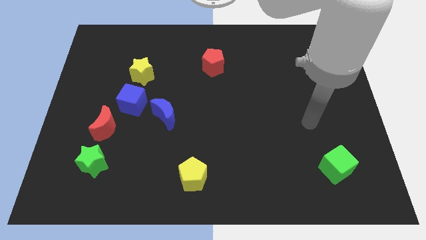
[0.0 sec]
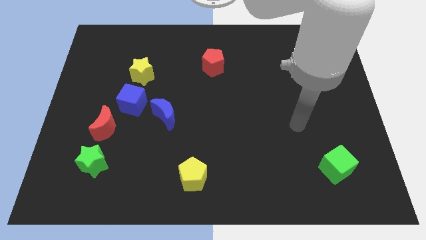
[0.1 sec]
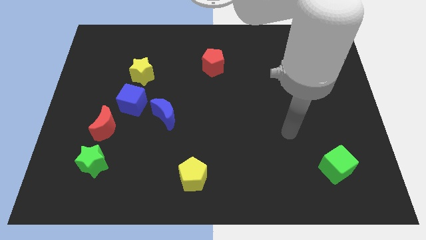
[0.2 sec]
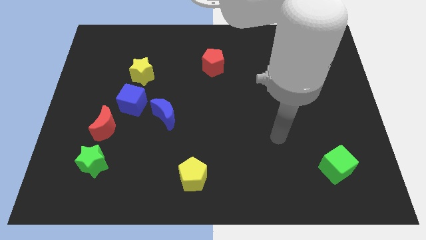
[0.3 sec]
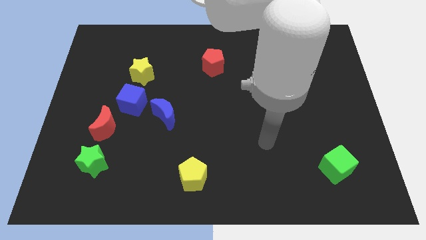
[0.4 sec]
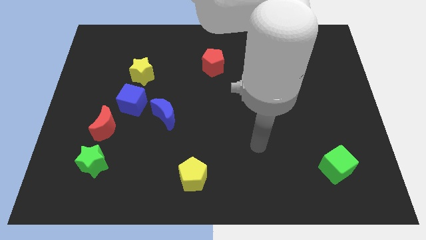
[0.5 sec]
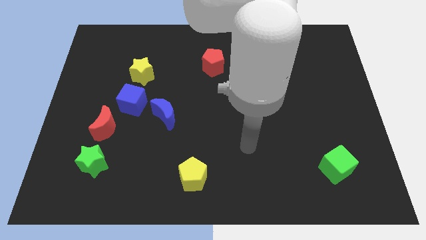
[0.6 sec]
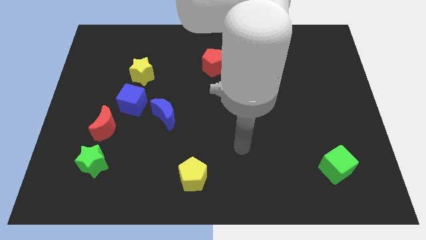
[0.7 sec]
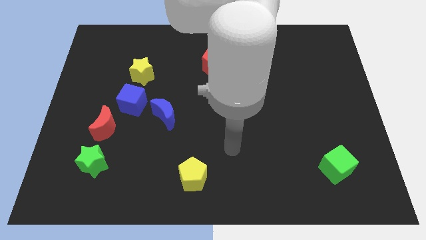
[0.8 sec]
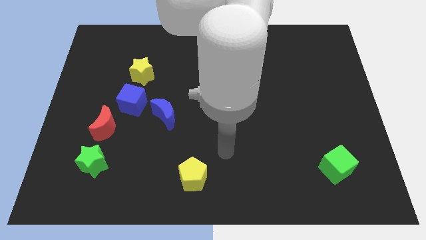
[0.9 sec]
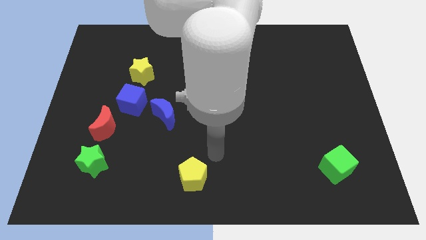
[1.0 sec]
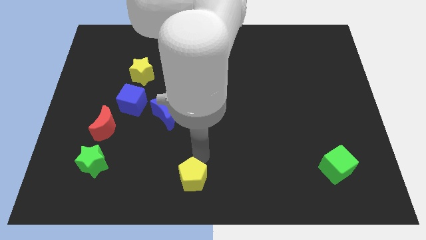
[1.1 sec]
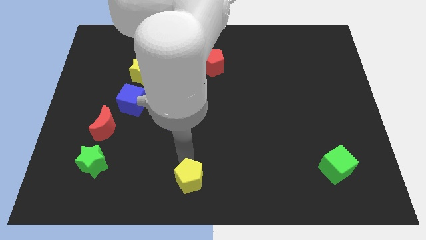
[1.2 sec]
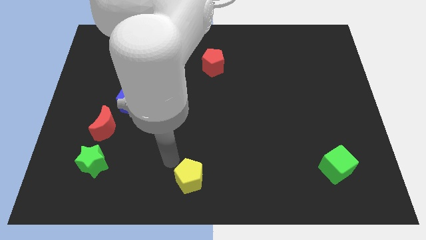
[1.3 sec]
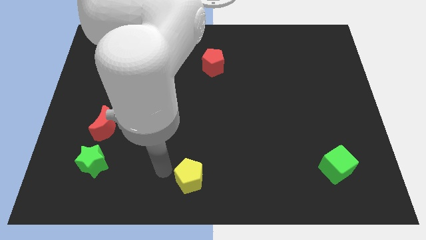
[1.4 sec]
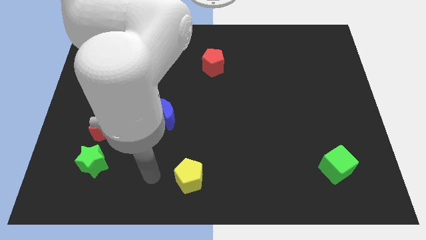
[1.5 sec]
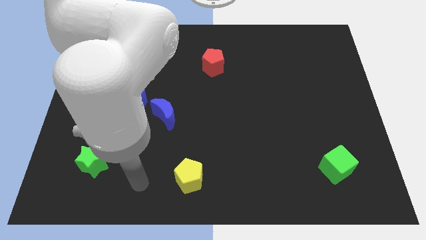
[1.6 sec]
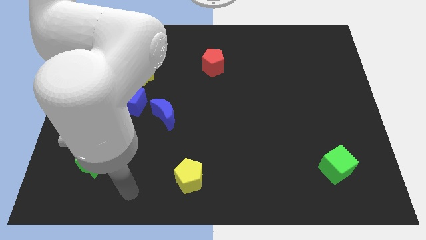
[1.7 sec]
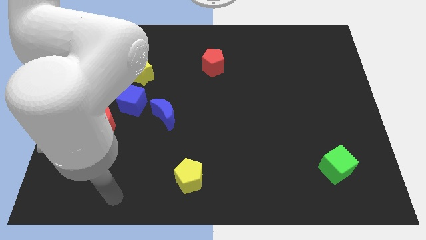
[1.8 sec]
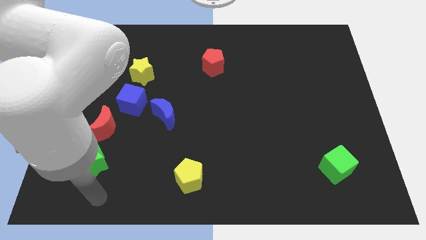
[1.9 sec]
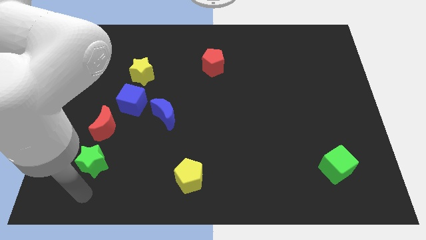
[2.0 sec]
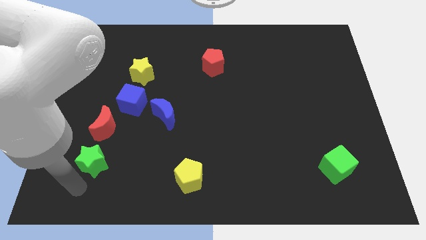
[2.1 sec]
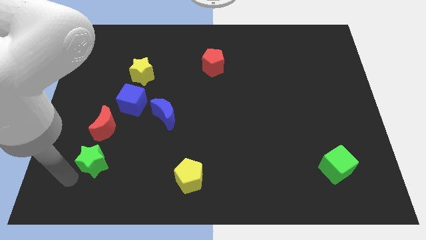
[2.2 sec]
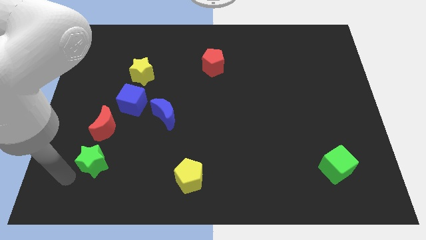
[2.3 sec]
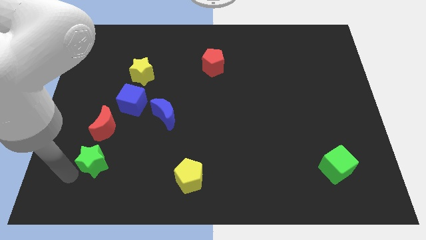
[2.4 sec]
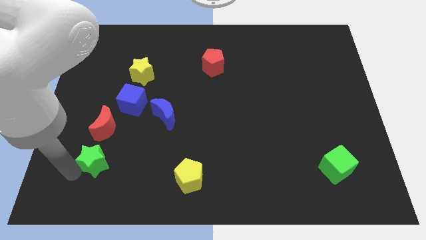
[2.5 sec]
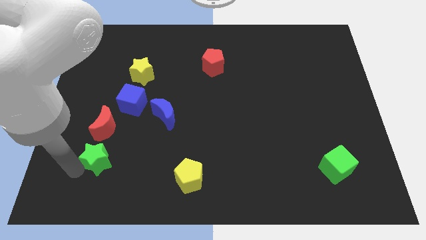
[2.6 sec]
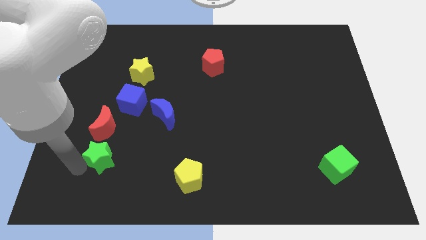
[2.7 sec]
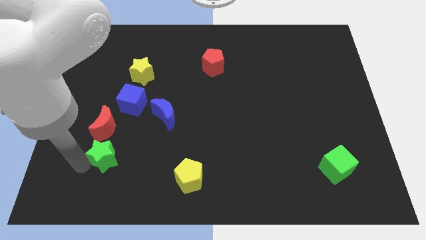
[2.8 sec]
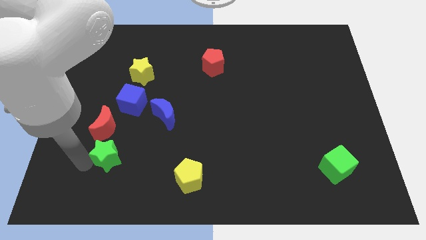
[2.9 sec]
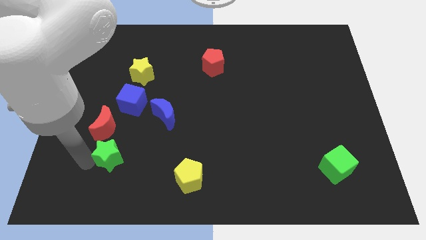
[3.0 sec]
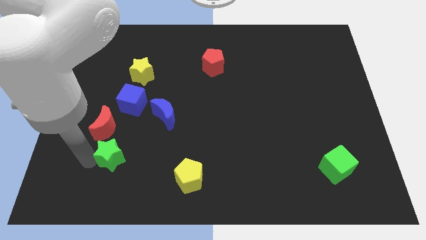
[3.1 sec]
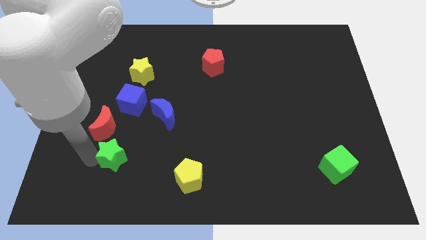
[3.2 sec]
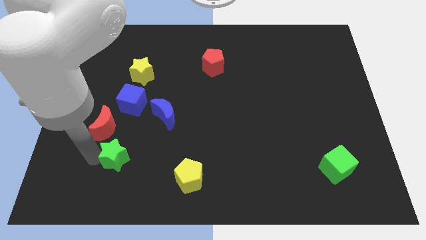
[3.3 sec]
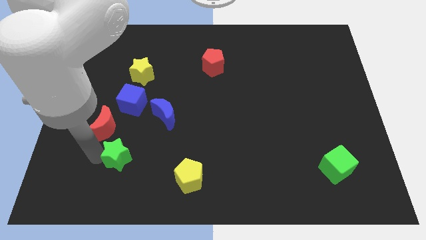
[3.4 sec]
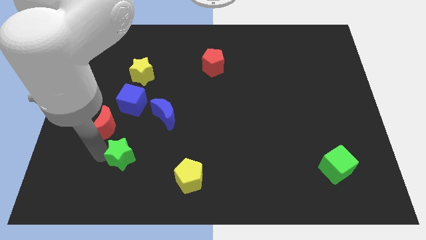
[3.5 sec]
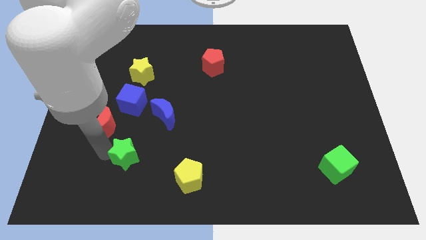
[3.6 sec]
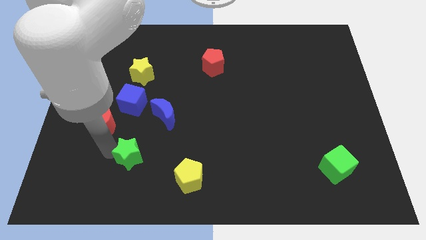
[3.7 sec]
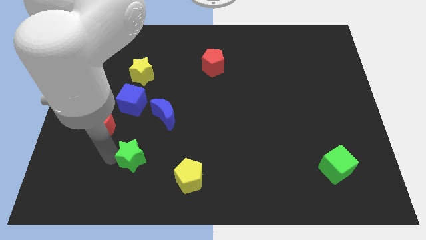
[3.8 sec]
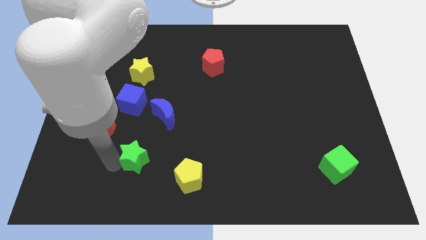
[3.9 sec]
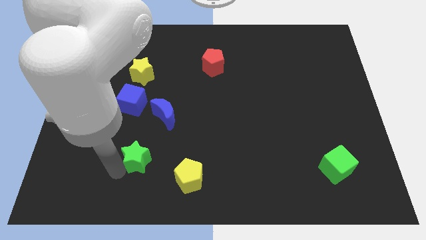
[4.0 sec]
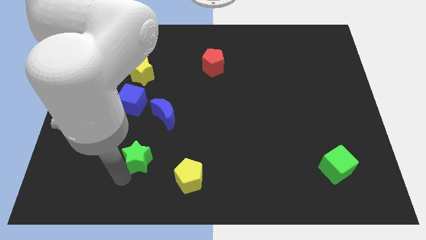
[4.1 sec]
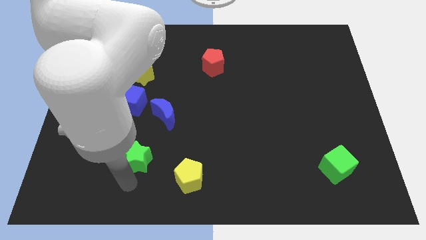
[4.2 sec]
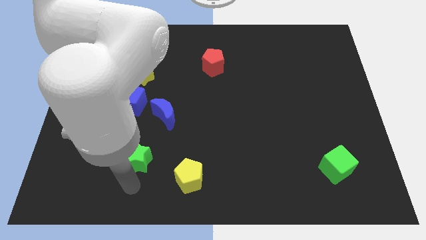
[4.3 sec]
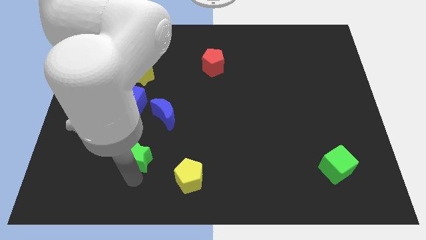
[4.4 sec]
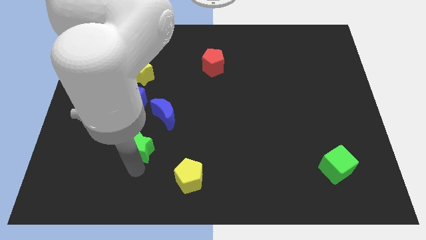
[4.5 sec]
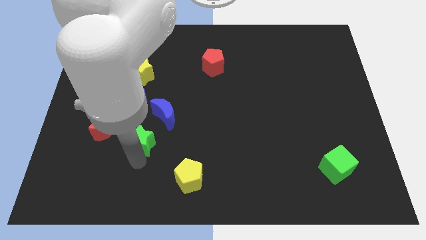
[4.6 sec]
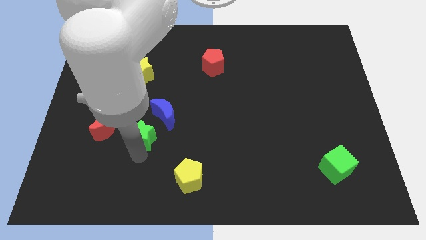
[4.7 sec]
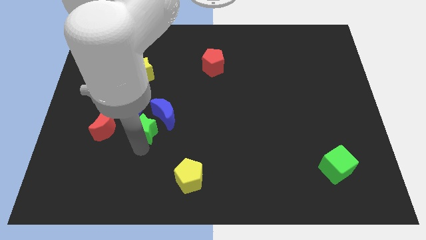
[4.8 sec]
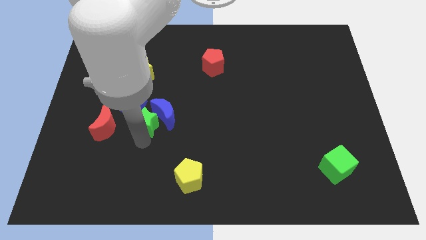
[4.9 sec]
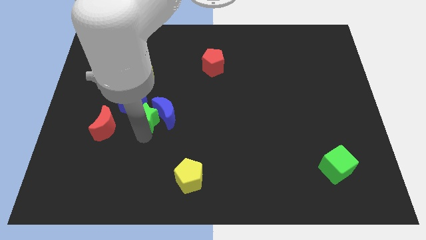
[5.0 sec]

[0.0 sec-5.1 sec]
slide the green star next to the blue cube

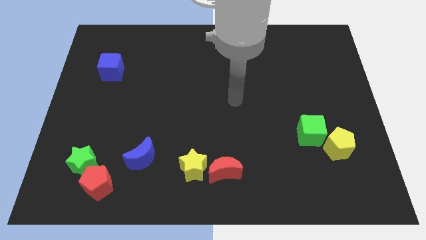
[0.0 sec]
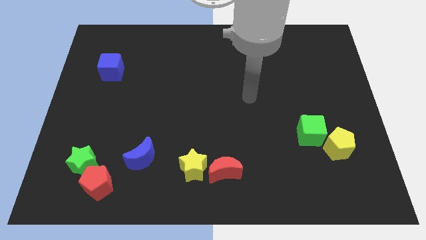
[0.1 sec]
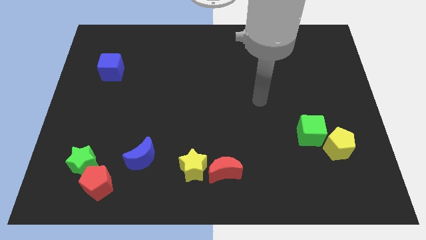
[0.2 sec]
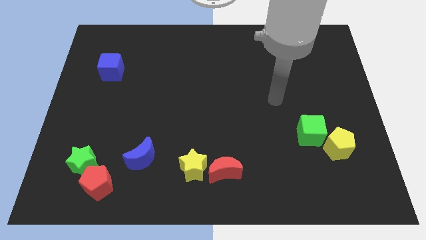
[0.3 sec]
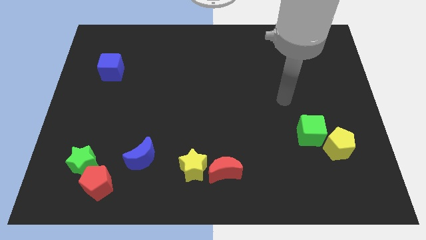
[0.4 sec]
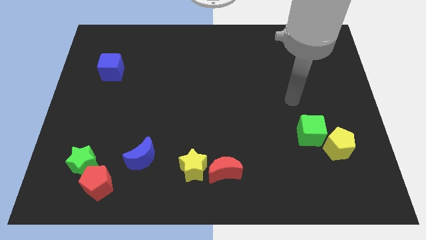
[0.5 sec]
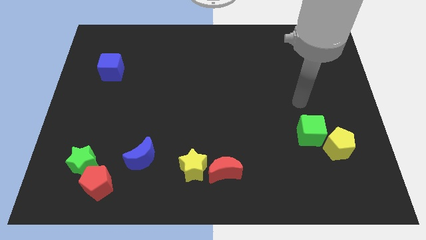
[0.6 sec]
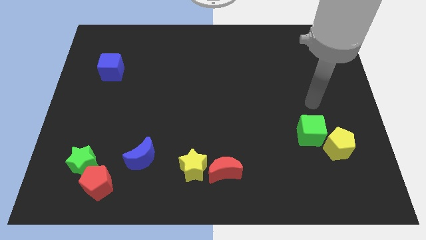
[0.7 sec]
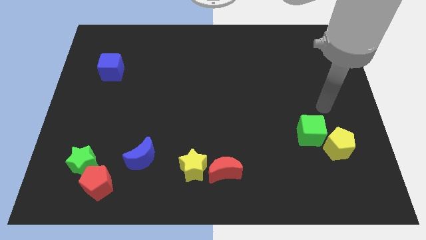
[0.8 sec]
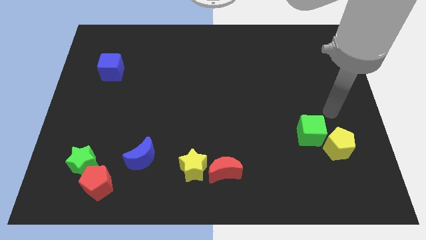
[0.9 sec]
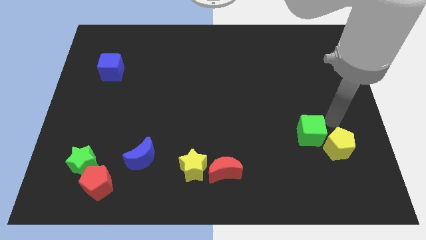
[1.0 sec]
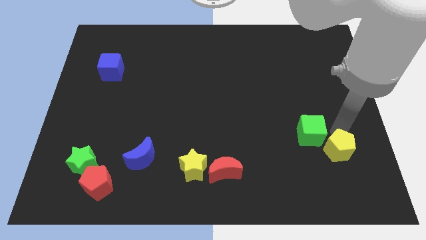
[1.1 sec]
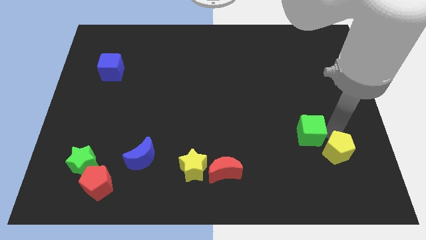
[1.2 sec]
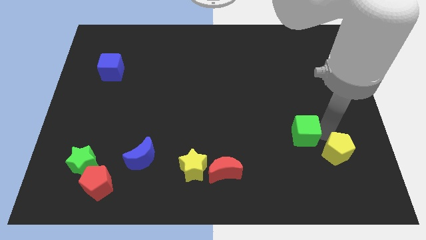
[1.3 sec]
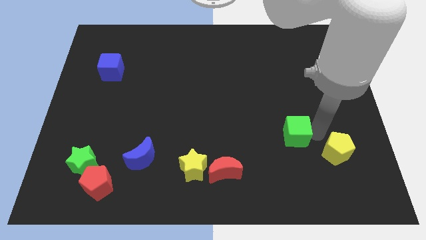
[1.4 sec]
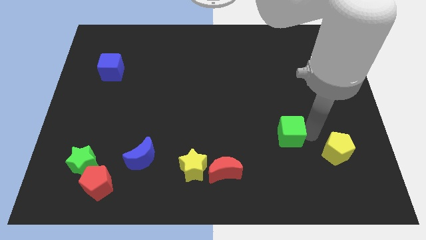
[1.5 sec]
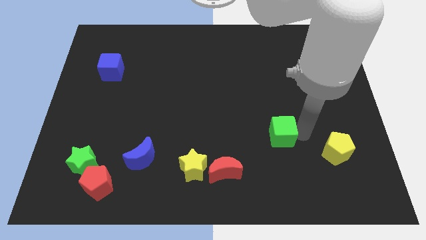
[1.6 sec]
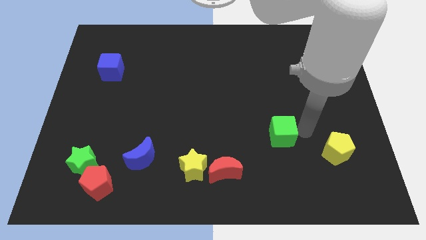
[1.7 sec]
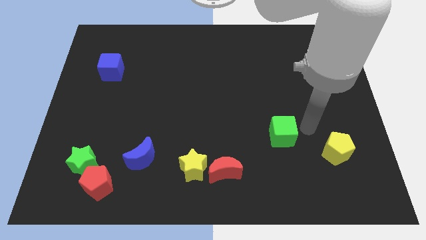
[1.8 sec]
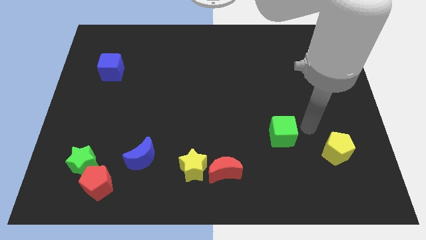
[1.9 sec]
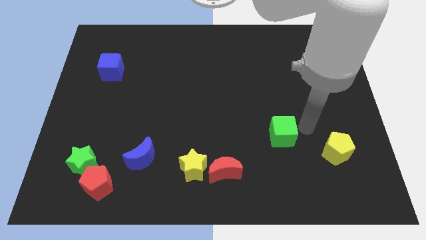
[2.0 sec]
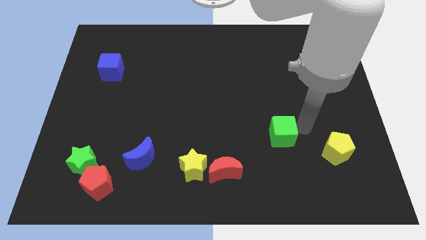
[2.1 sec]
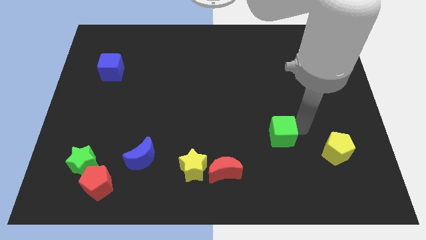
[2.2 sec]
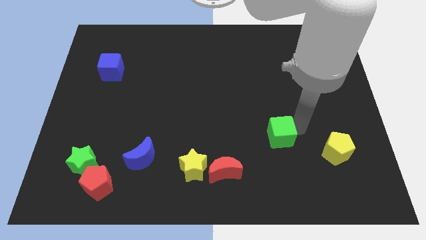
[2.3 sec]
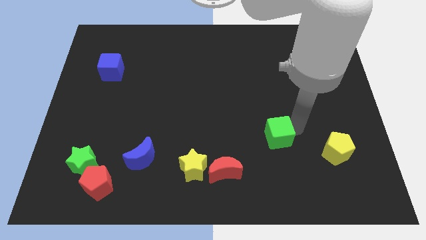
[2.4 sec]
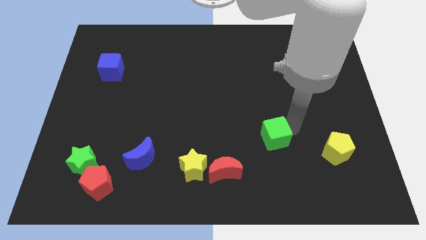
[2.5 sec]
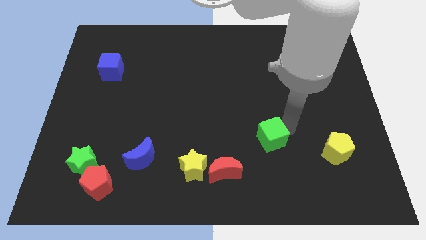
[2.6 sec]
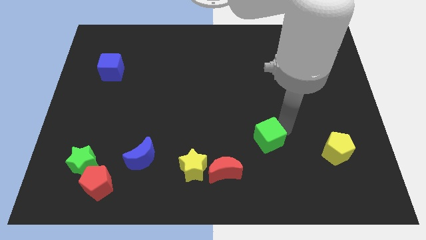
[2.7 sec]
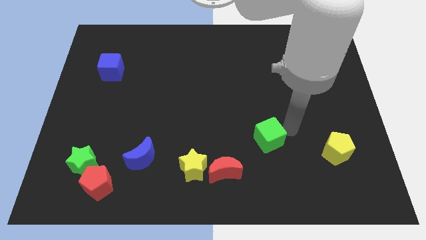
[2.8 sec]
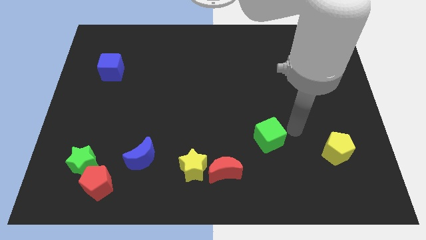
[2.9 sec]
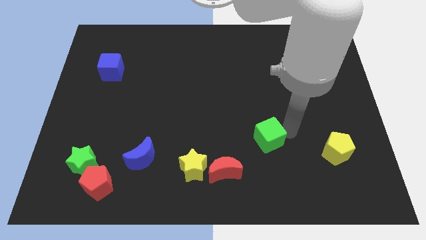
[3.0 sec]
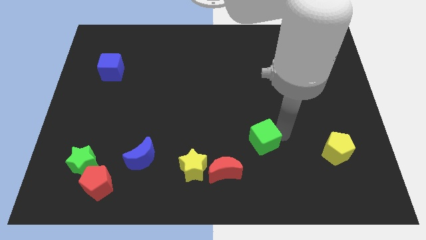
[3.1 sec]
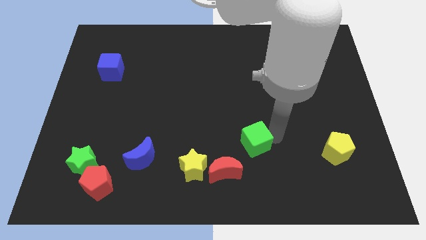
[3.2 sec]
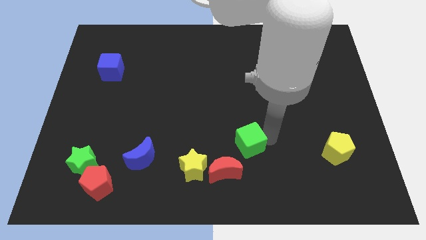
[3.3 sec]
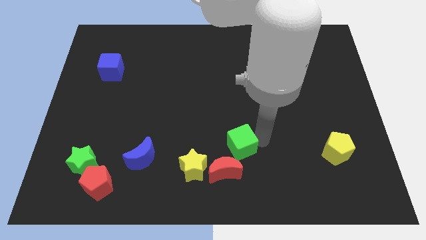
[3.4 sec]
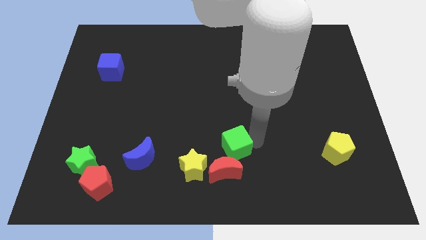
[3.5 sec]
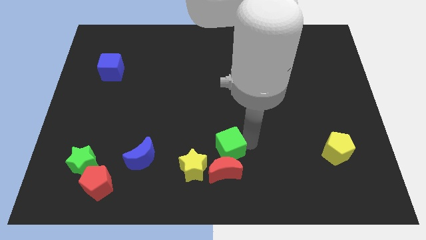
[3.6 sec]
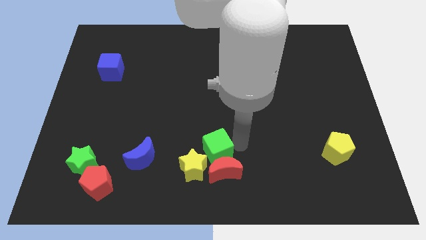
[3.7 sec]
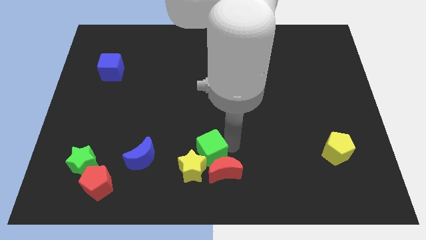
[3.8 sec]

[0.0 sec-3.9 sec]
put the green cube to the yellow star
